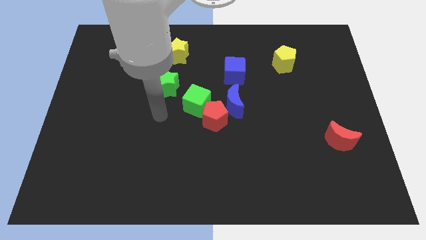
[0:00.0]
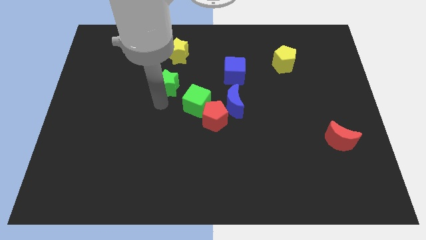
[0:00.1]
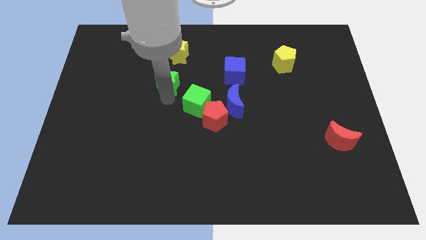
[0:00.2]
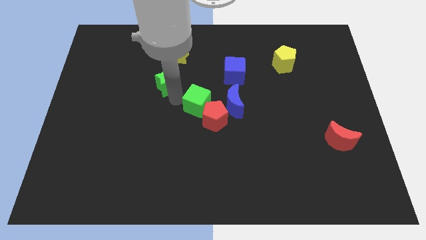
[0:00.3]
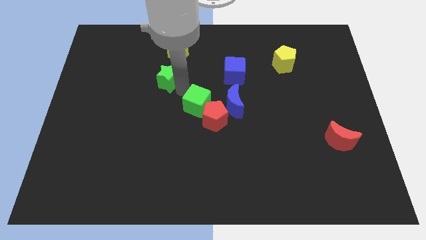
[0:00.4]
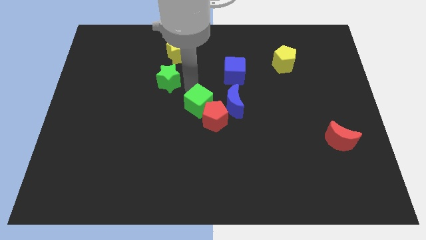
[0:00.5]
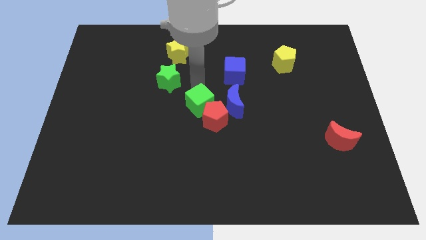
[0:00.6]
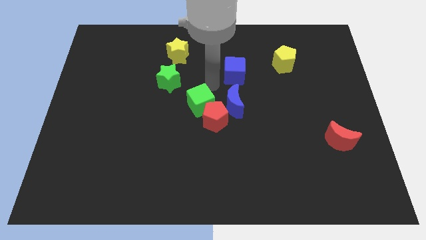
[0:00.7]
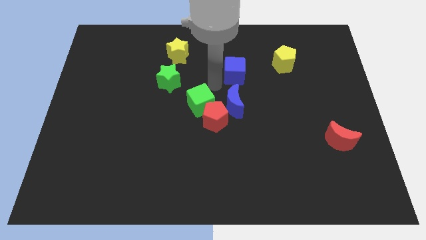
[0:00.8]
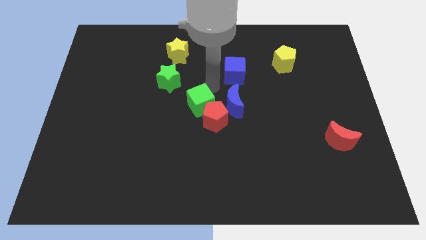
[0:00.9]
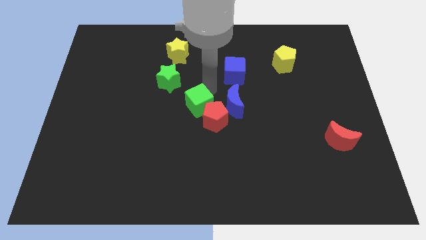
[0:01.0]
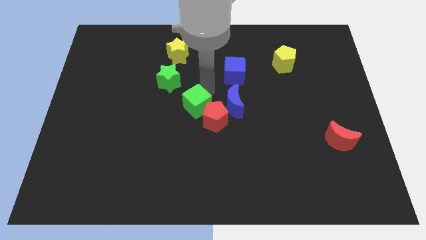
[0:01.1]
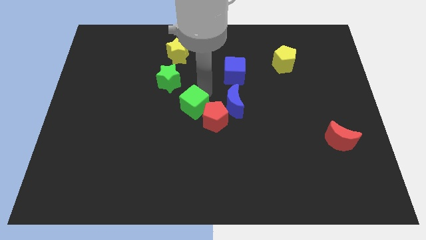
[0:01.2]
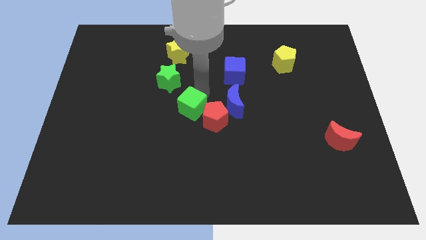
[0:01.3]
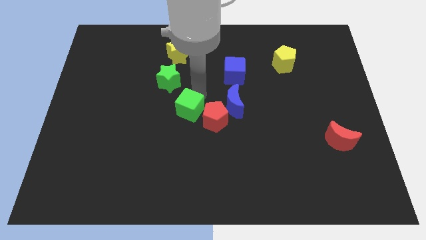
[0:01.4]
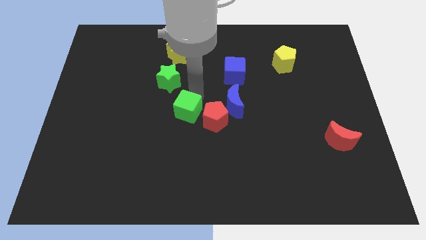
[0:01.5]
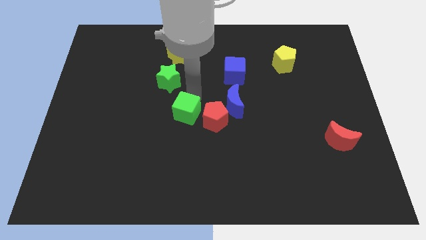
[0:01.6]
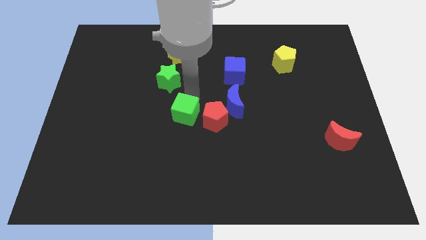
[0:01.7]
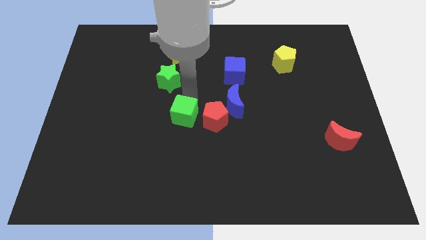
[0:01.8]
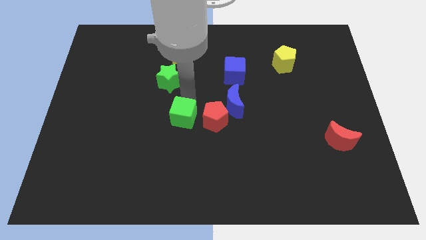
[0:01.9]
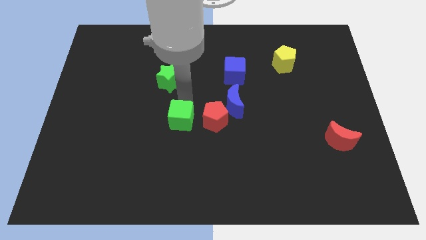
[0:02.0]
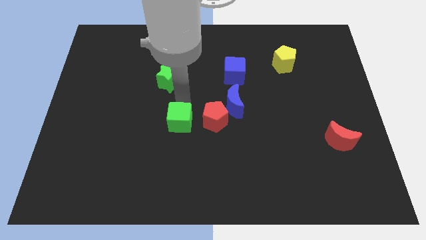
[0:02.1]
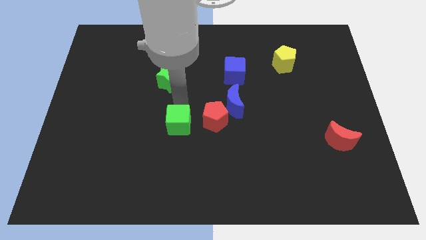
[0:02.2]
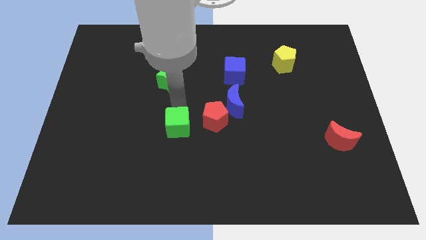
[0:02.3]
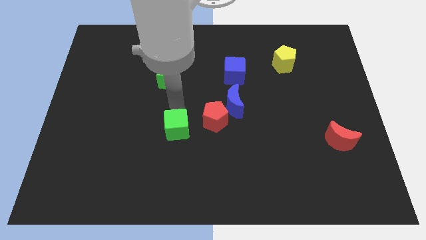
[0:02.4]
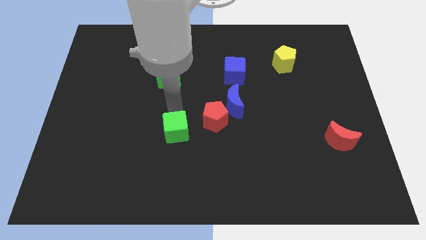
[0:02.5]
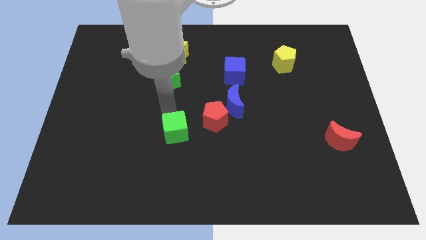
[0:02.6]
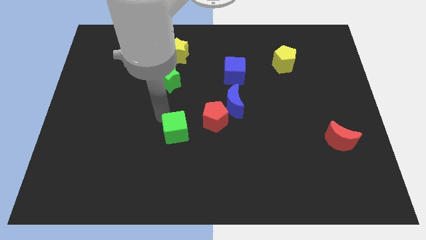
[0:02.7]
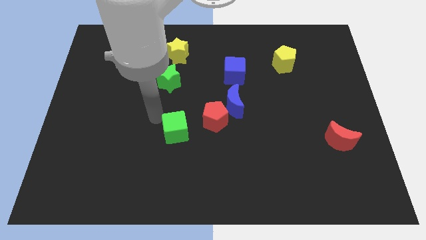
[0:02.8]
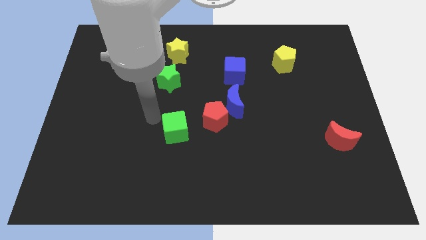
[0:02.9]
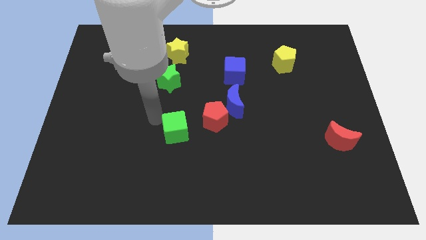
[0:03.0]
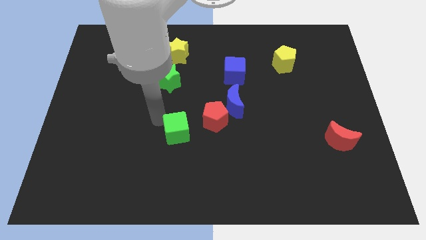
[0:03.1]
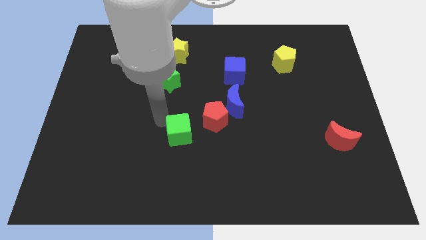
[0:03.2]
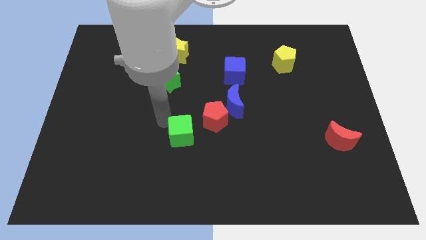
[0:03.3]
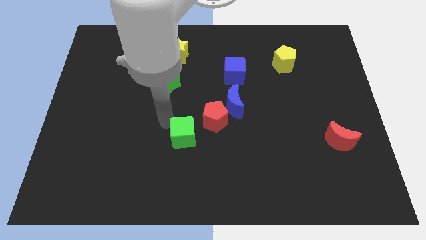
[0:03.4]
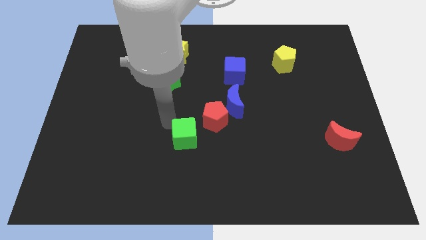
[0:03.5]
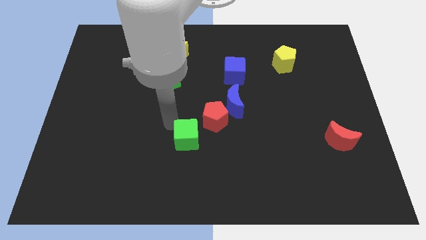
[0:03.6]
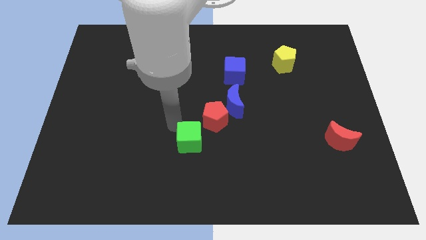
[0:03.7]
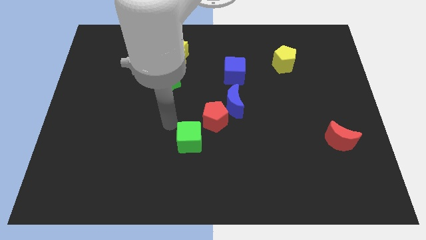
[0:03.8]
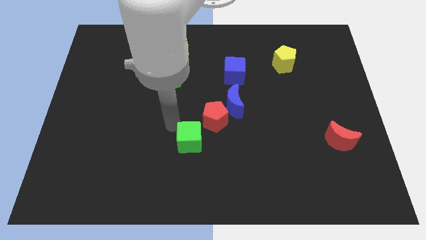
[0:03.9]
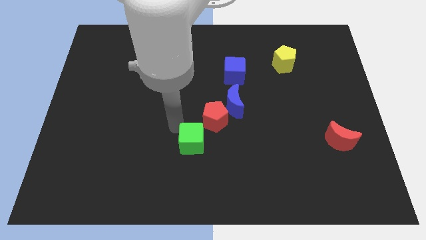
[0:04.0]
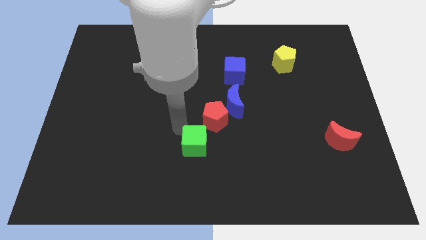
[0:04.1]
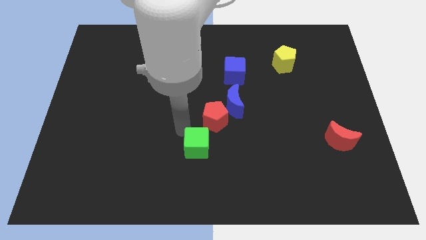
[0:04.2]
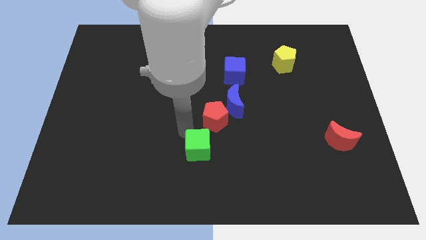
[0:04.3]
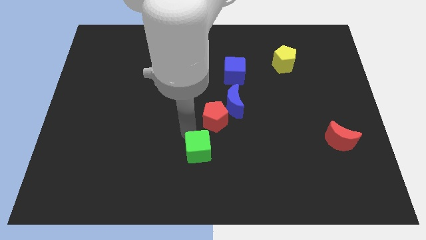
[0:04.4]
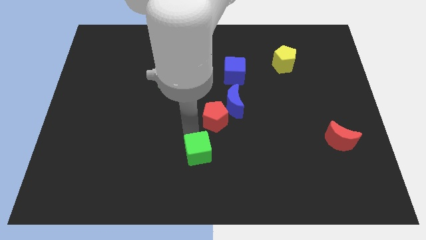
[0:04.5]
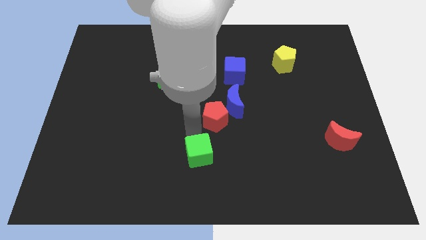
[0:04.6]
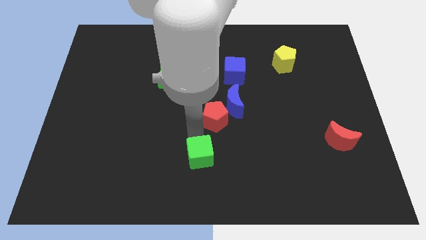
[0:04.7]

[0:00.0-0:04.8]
push the green cube somewhat downwards and then right

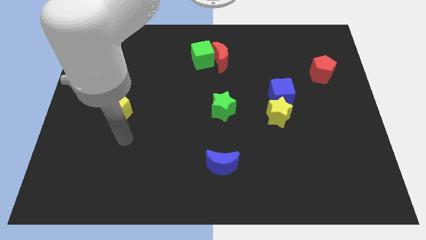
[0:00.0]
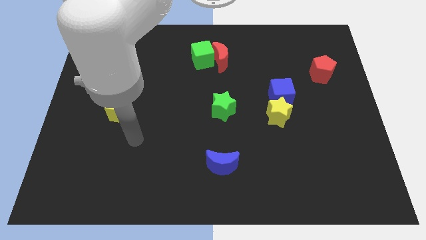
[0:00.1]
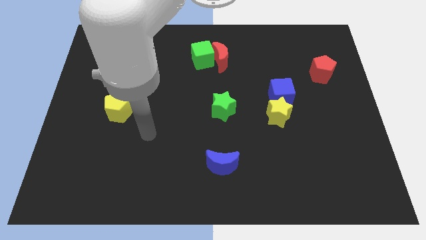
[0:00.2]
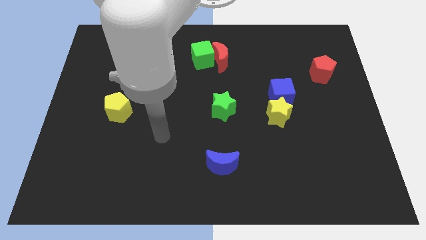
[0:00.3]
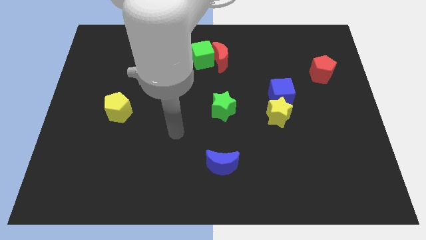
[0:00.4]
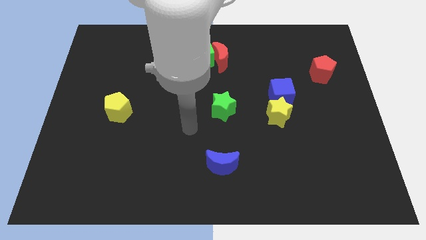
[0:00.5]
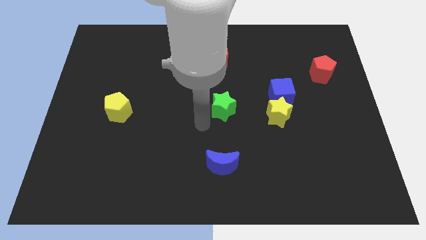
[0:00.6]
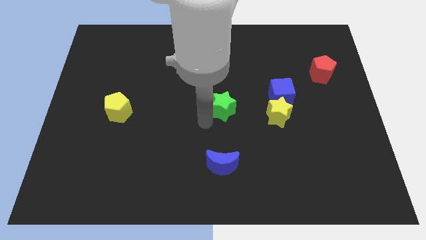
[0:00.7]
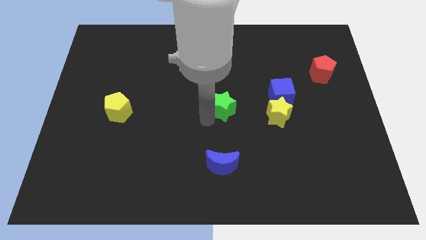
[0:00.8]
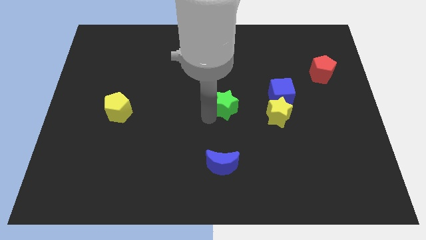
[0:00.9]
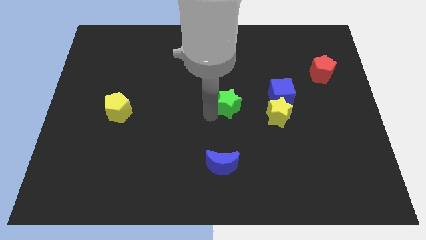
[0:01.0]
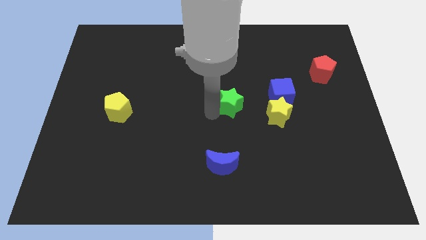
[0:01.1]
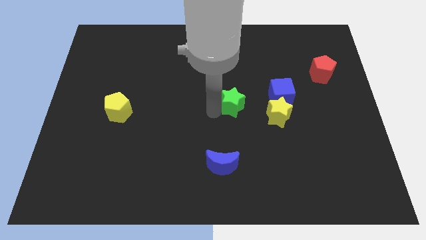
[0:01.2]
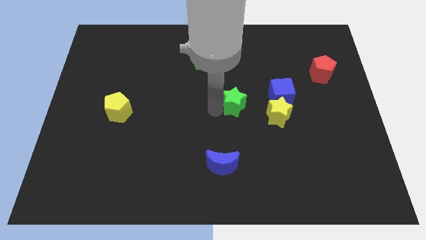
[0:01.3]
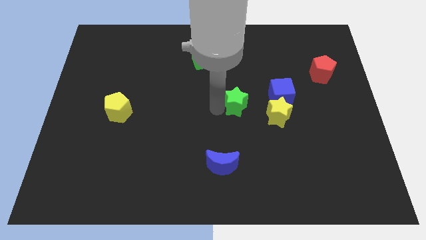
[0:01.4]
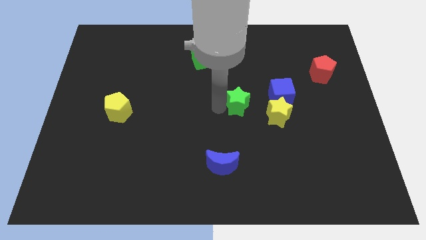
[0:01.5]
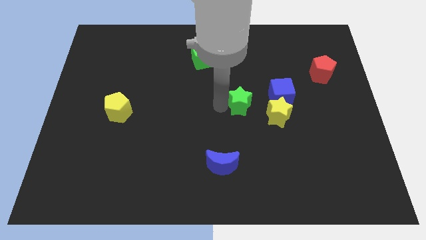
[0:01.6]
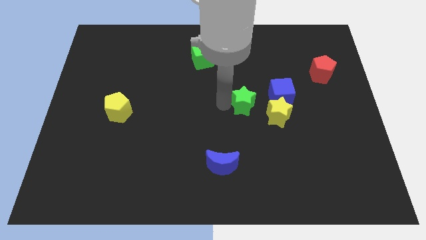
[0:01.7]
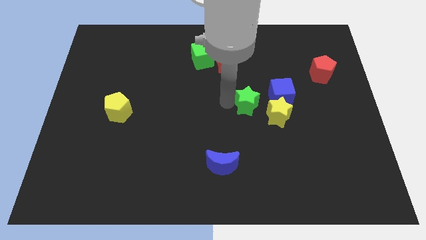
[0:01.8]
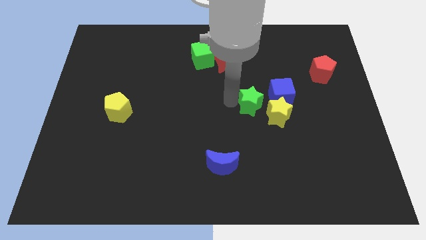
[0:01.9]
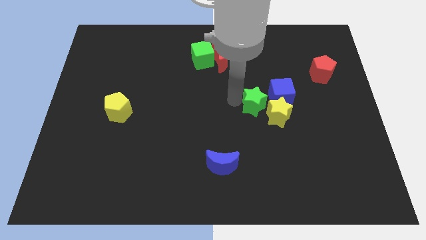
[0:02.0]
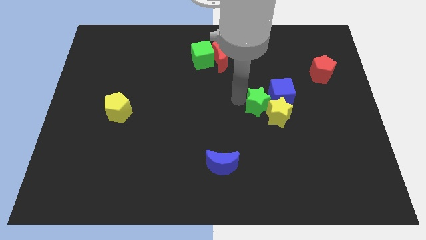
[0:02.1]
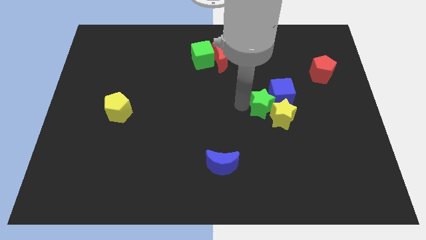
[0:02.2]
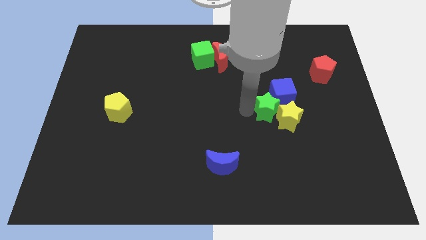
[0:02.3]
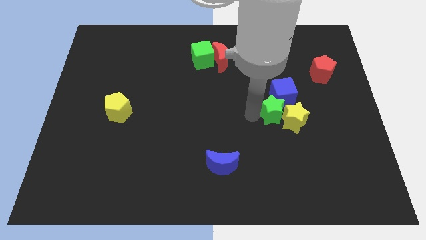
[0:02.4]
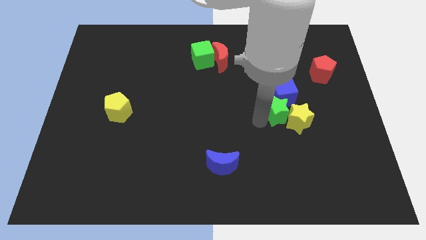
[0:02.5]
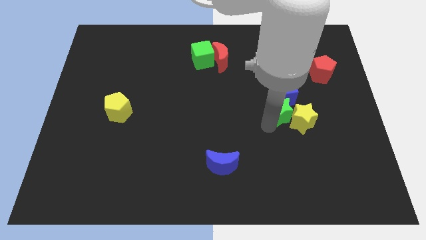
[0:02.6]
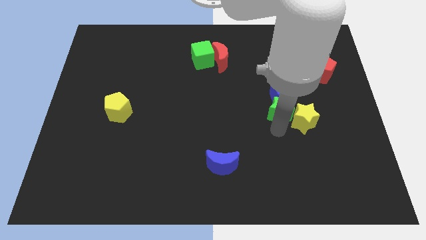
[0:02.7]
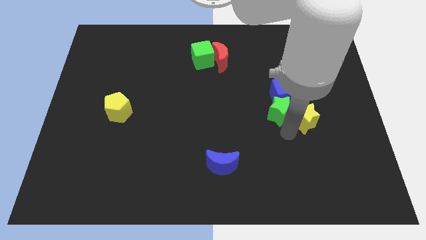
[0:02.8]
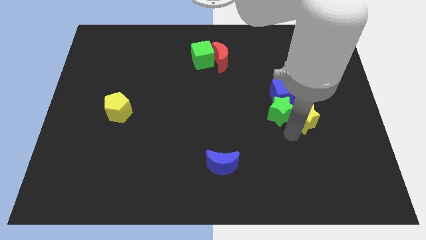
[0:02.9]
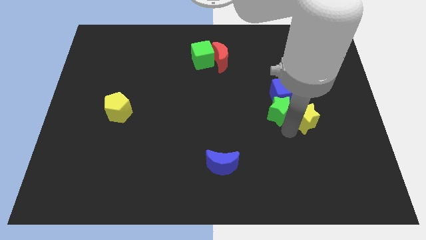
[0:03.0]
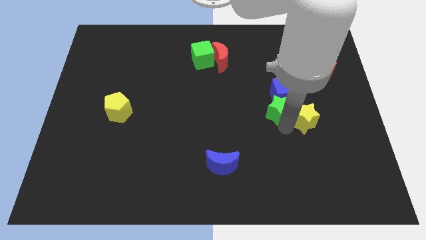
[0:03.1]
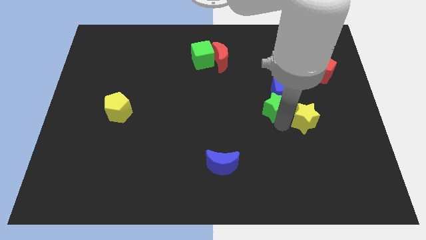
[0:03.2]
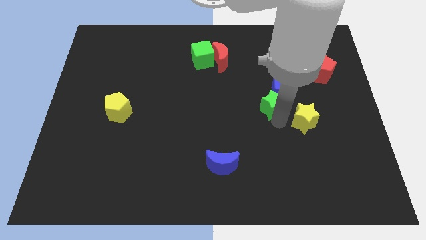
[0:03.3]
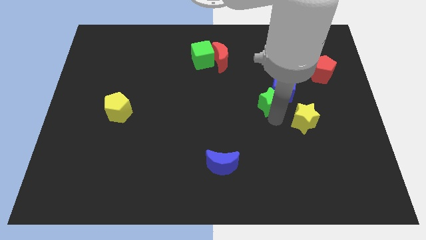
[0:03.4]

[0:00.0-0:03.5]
move the green star up and right a little
